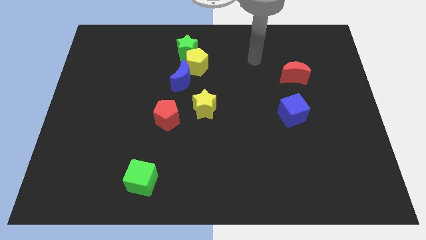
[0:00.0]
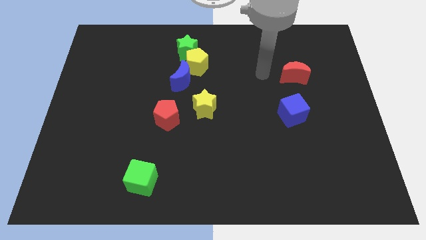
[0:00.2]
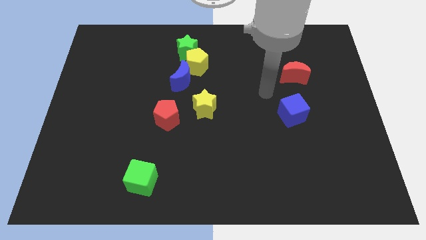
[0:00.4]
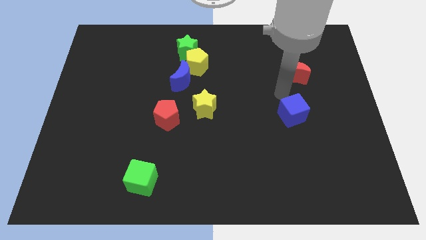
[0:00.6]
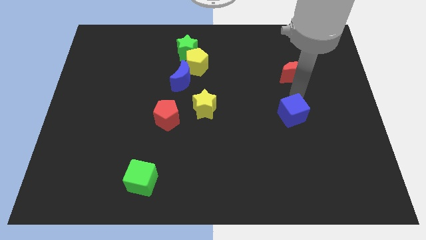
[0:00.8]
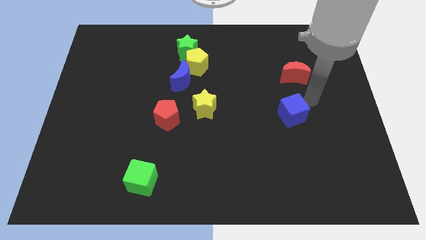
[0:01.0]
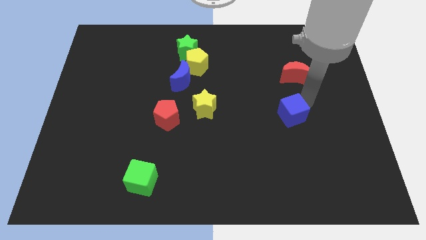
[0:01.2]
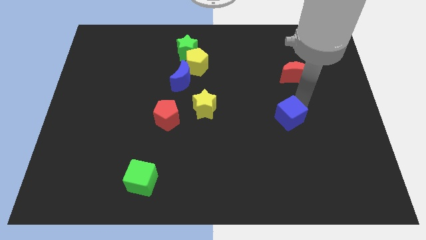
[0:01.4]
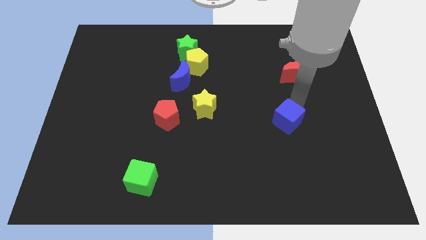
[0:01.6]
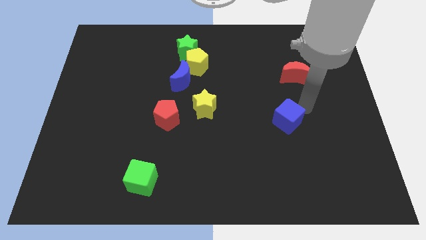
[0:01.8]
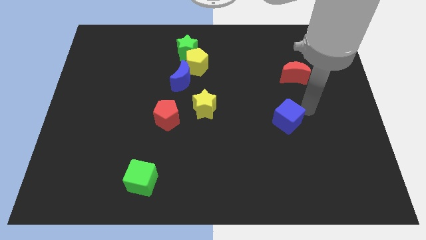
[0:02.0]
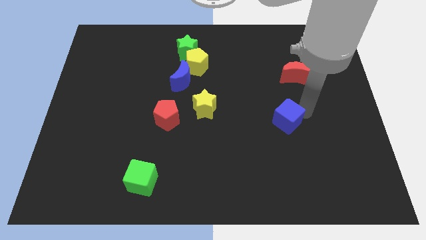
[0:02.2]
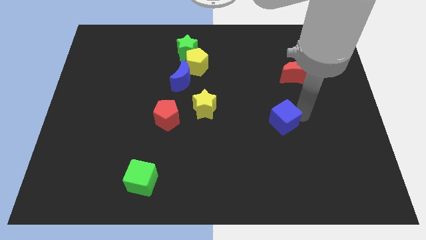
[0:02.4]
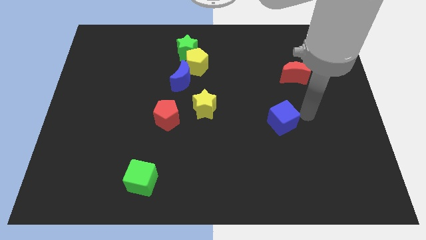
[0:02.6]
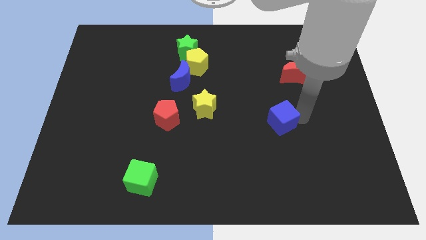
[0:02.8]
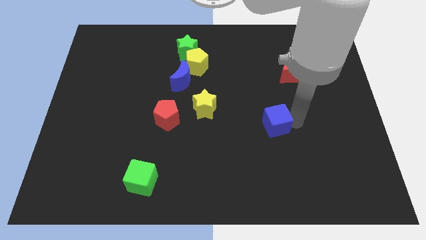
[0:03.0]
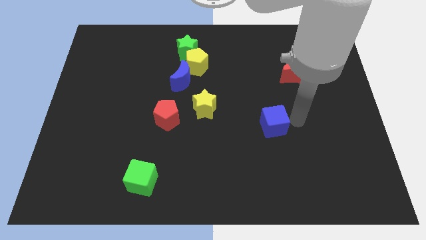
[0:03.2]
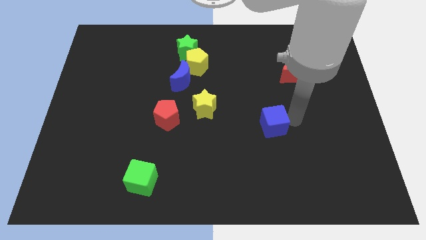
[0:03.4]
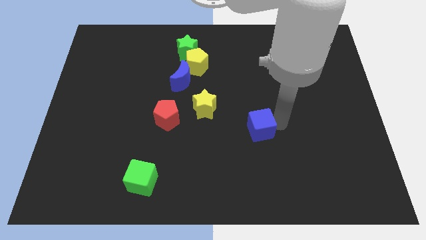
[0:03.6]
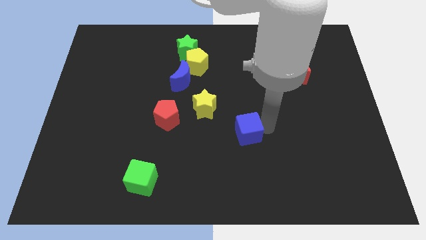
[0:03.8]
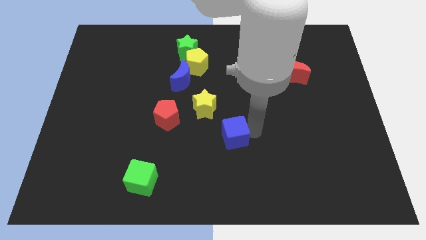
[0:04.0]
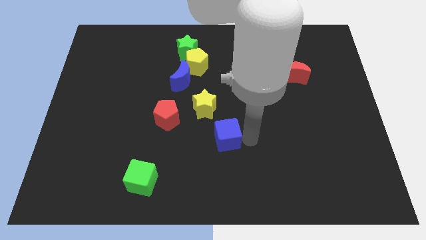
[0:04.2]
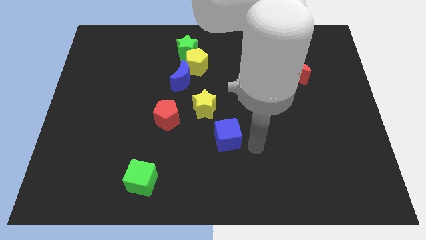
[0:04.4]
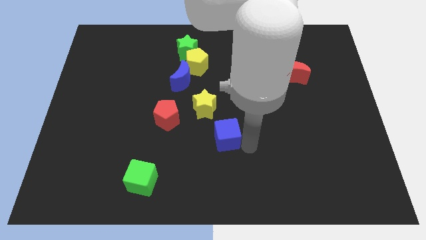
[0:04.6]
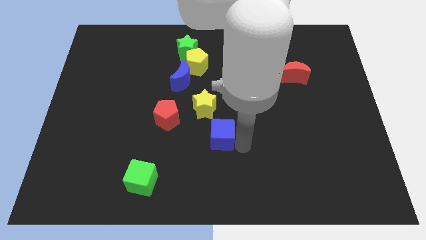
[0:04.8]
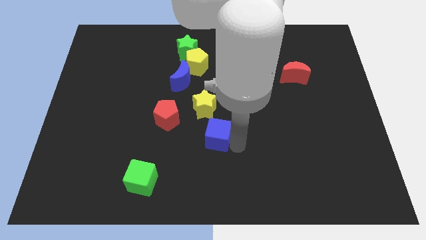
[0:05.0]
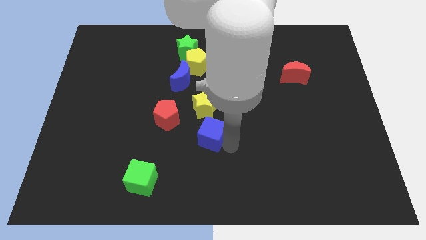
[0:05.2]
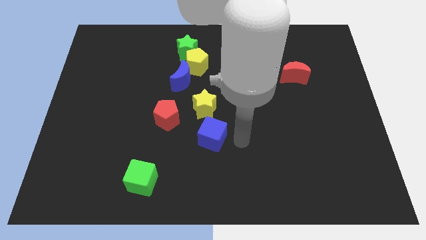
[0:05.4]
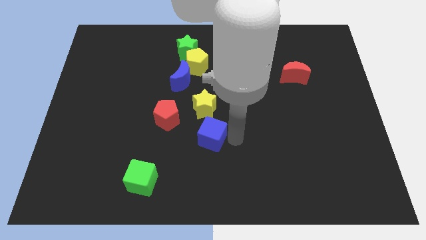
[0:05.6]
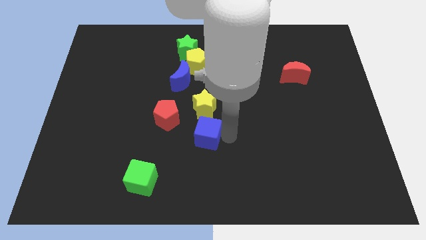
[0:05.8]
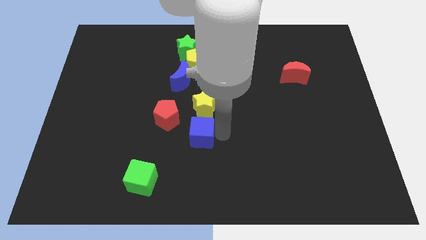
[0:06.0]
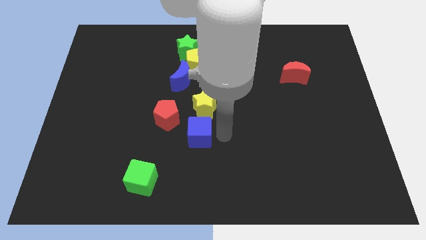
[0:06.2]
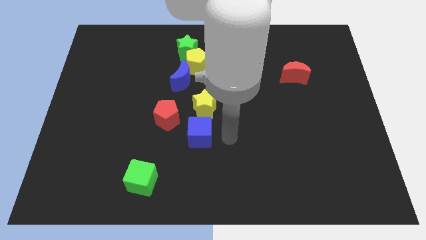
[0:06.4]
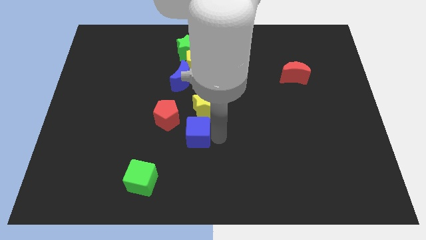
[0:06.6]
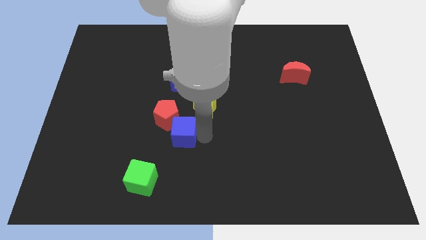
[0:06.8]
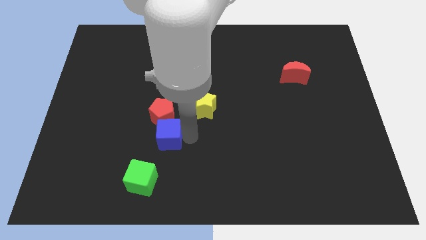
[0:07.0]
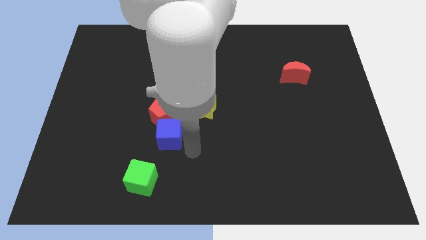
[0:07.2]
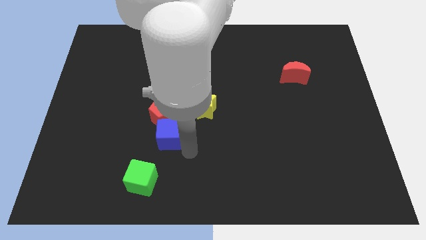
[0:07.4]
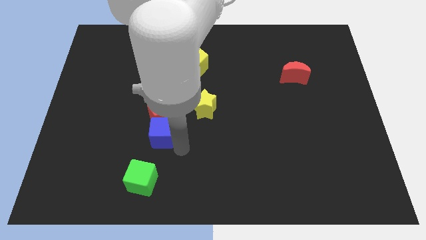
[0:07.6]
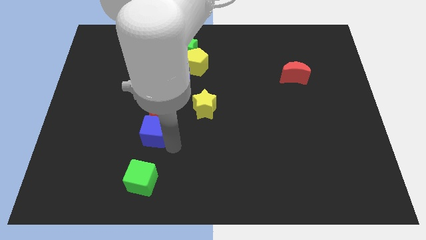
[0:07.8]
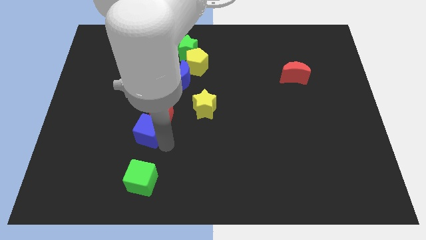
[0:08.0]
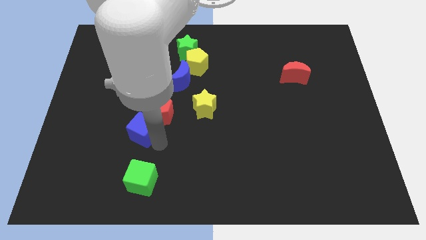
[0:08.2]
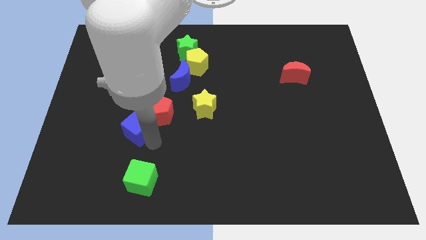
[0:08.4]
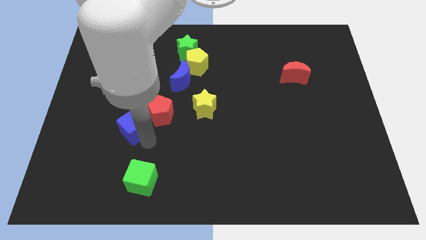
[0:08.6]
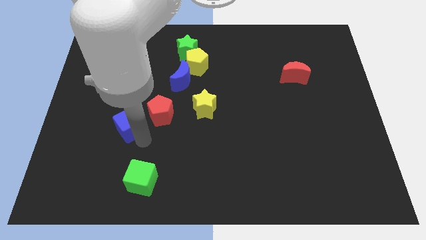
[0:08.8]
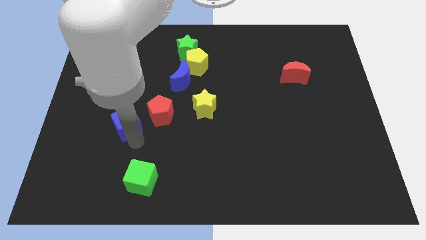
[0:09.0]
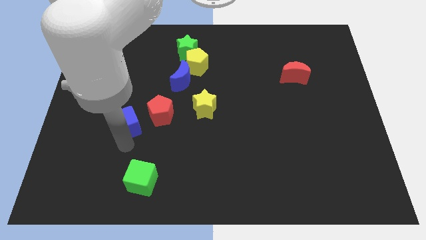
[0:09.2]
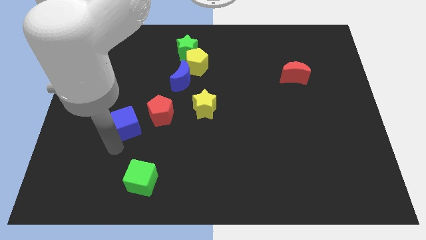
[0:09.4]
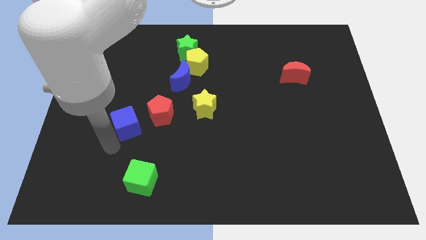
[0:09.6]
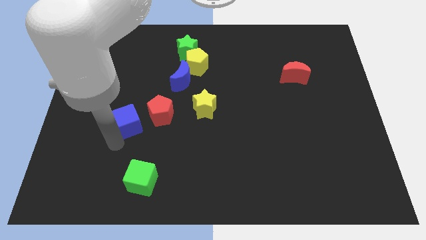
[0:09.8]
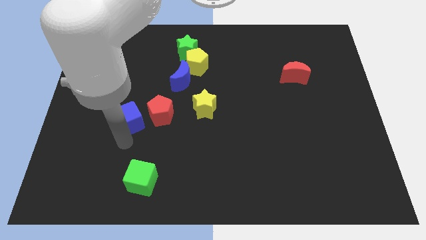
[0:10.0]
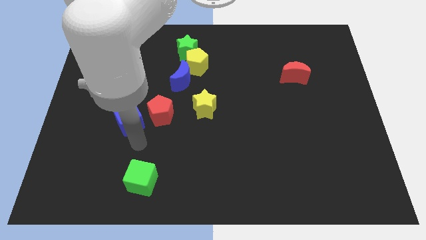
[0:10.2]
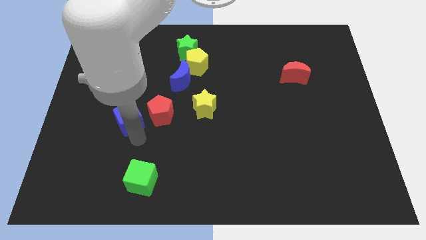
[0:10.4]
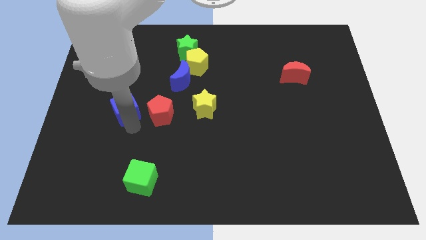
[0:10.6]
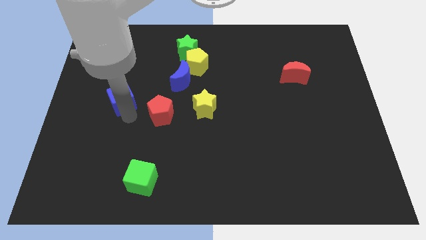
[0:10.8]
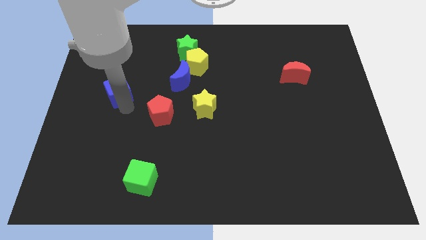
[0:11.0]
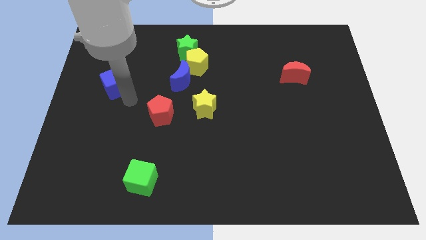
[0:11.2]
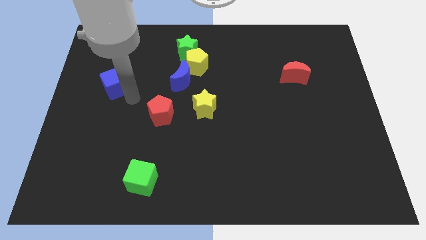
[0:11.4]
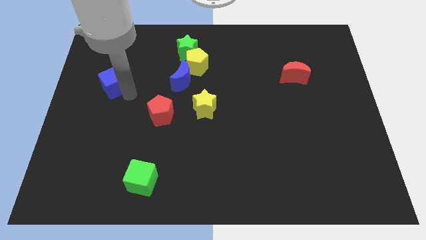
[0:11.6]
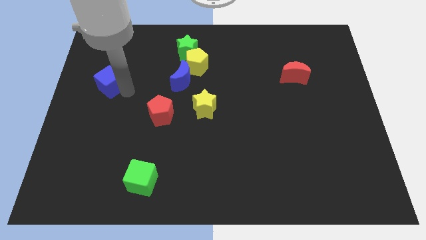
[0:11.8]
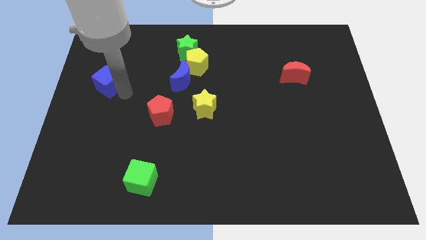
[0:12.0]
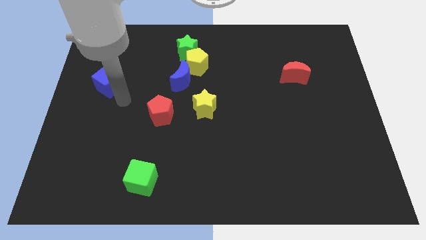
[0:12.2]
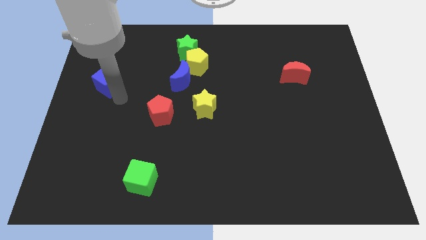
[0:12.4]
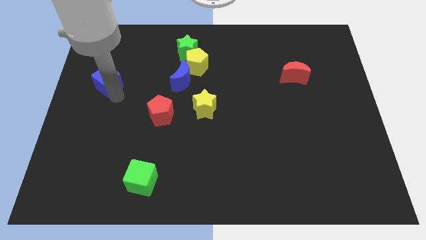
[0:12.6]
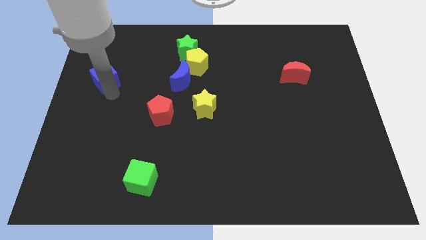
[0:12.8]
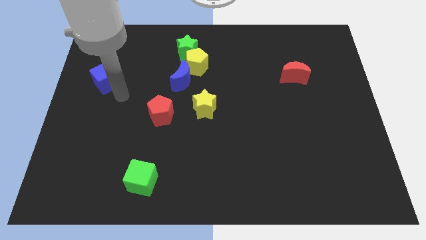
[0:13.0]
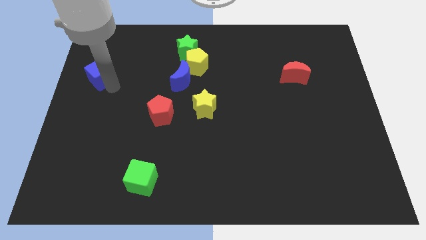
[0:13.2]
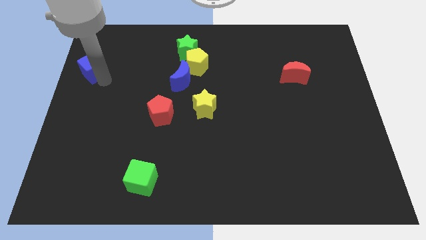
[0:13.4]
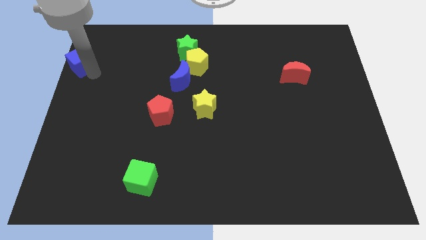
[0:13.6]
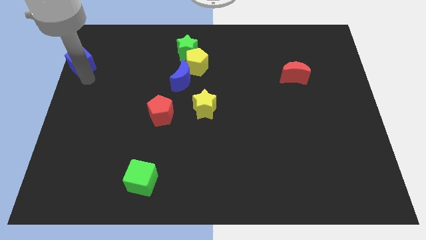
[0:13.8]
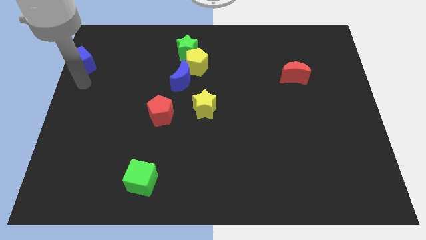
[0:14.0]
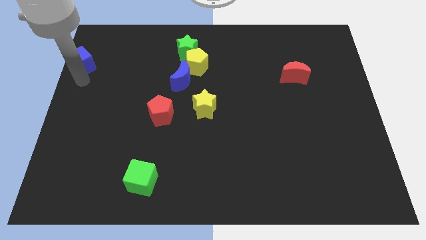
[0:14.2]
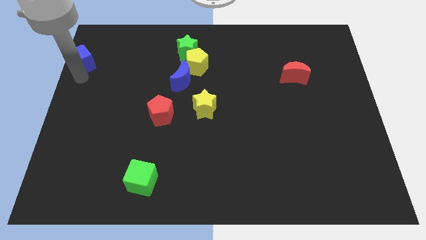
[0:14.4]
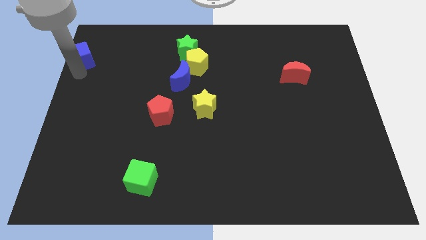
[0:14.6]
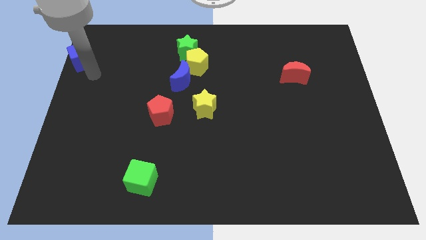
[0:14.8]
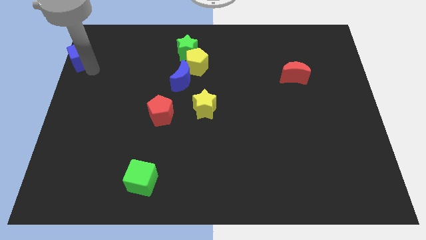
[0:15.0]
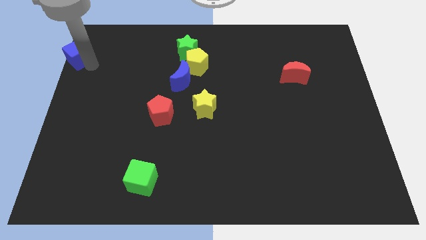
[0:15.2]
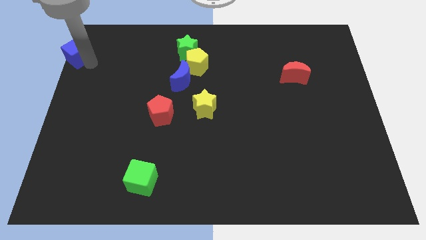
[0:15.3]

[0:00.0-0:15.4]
move the blue cube to the top left
